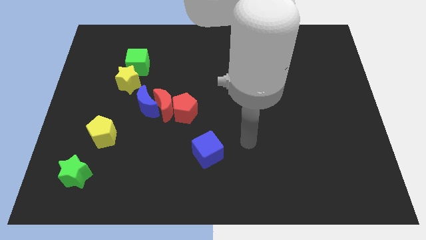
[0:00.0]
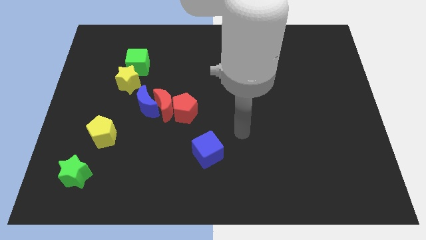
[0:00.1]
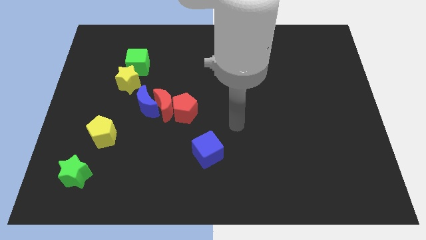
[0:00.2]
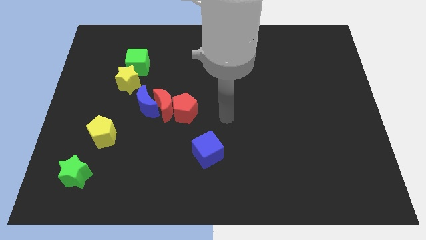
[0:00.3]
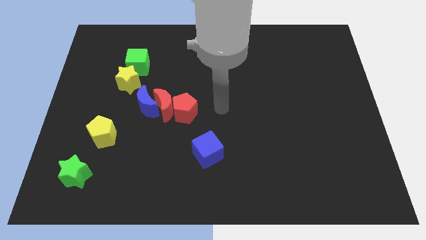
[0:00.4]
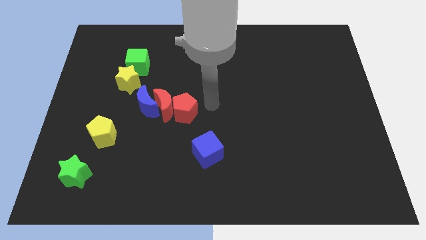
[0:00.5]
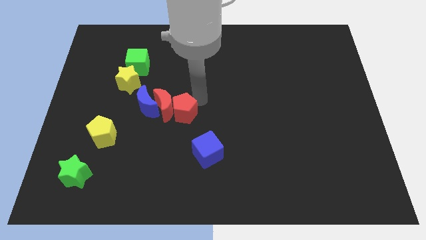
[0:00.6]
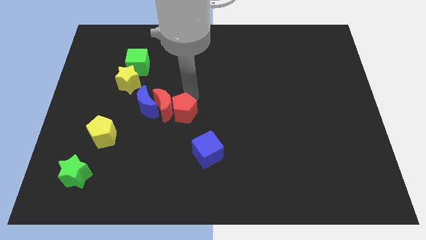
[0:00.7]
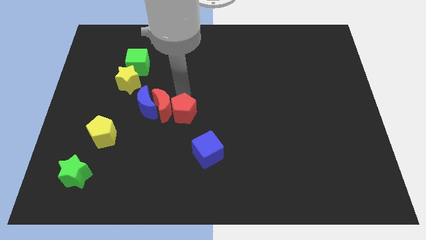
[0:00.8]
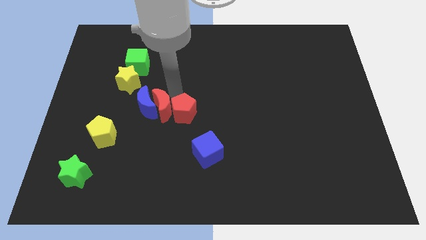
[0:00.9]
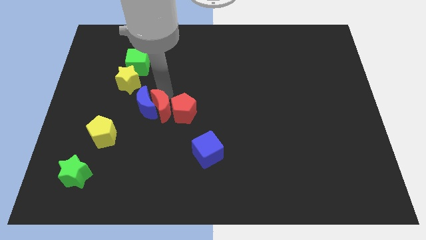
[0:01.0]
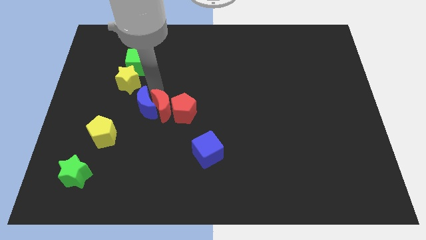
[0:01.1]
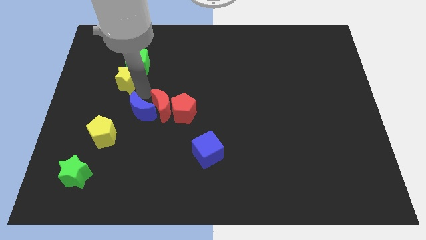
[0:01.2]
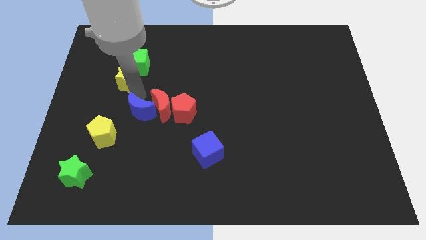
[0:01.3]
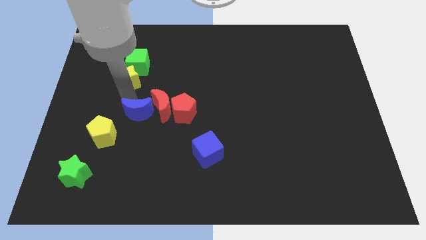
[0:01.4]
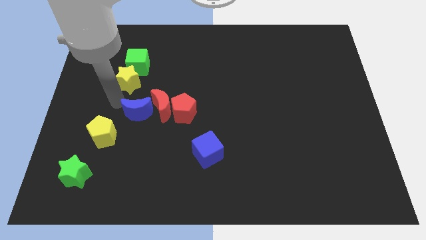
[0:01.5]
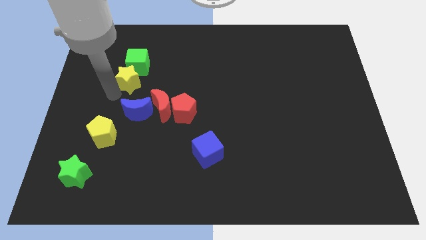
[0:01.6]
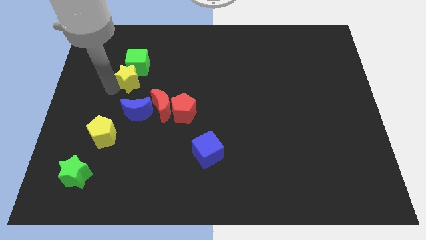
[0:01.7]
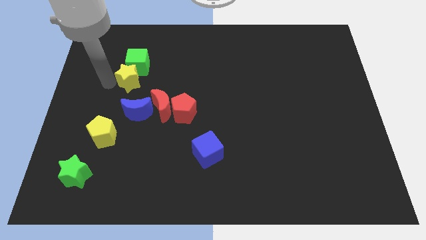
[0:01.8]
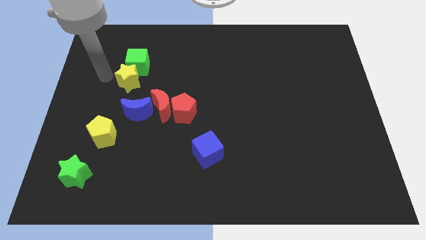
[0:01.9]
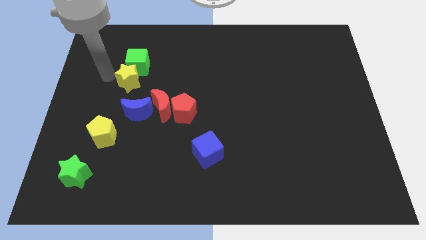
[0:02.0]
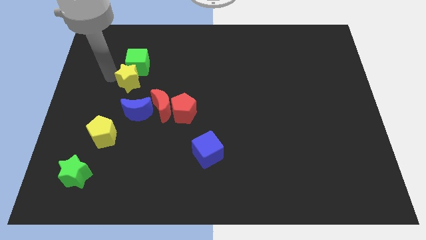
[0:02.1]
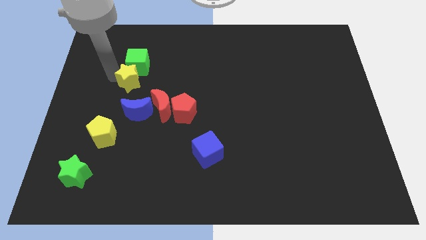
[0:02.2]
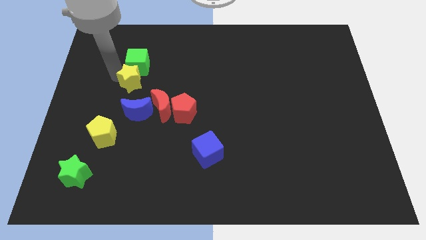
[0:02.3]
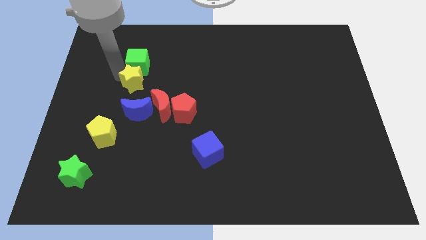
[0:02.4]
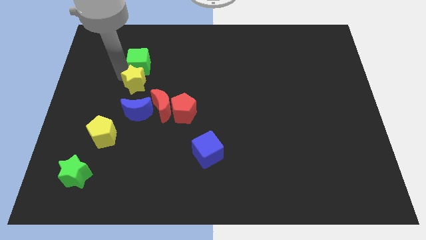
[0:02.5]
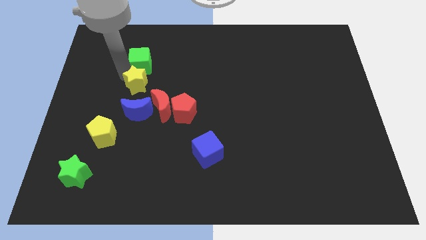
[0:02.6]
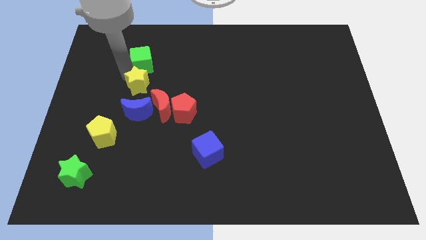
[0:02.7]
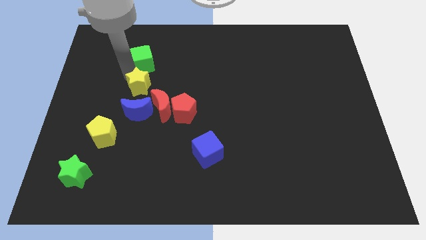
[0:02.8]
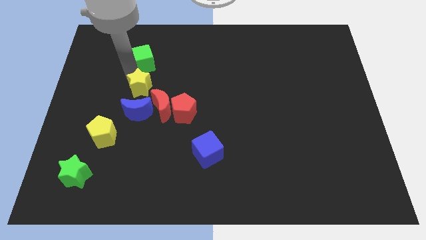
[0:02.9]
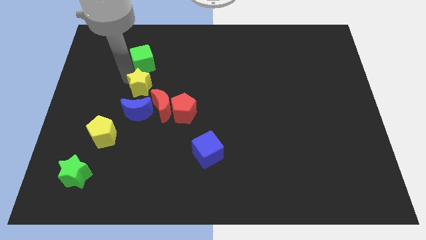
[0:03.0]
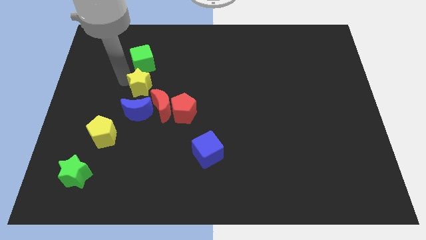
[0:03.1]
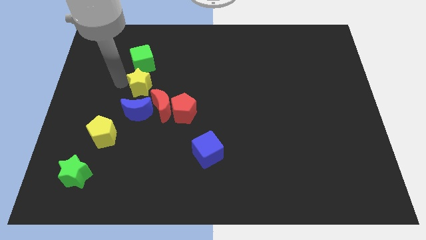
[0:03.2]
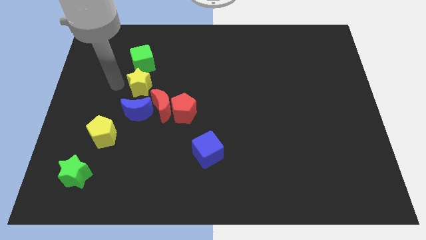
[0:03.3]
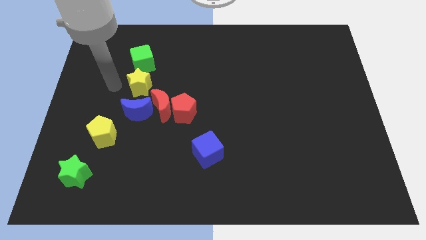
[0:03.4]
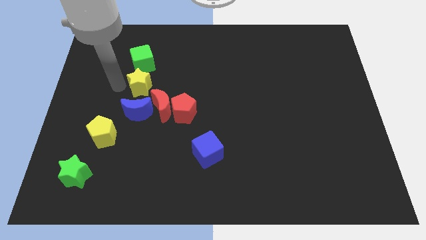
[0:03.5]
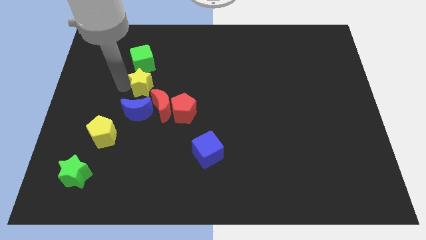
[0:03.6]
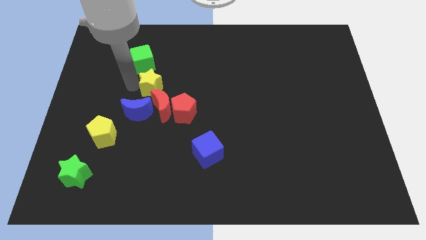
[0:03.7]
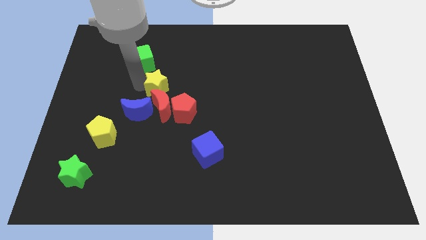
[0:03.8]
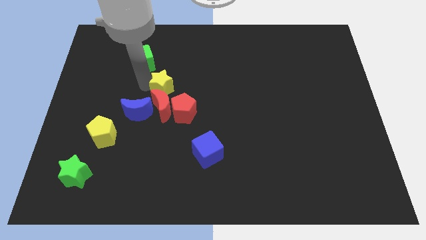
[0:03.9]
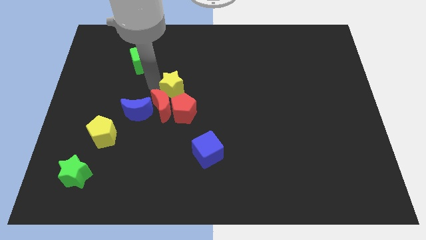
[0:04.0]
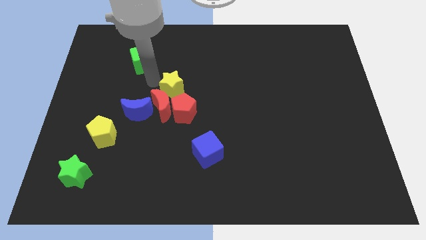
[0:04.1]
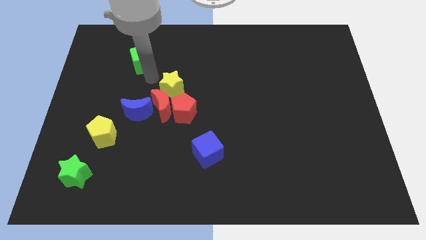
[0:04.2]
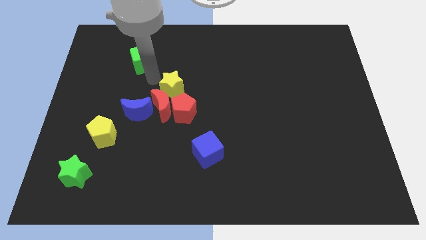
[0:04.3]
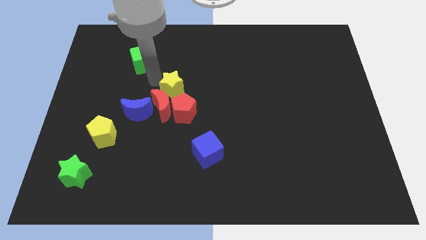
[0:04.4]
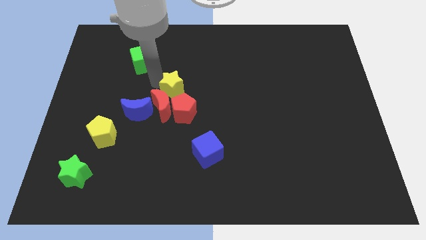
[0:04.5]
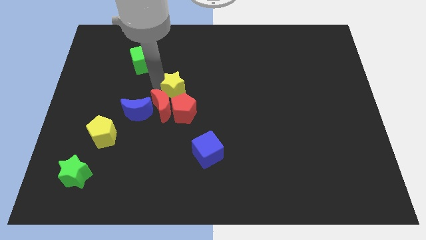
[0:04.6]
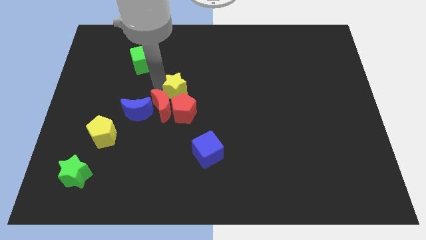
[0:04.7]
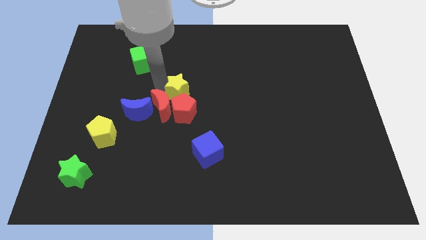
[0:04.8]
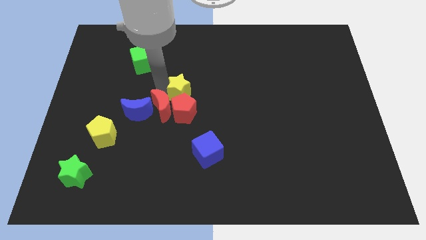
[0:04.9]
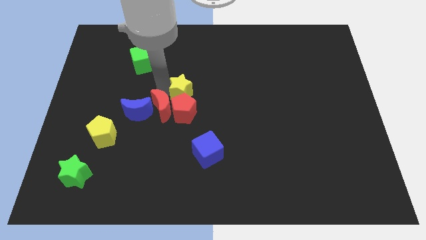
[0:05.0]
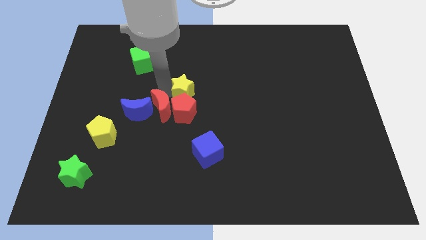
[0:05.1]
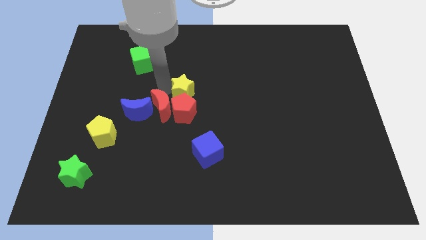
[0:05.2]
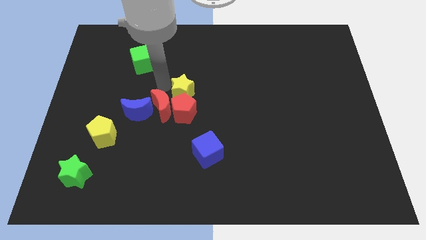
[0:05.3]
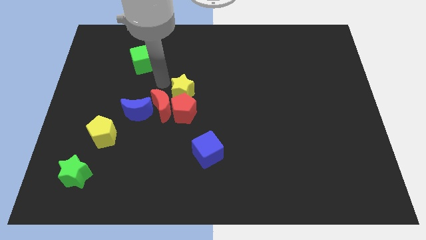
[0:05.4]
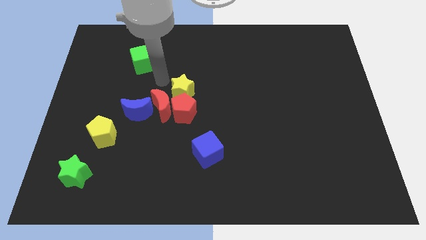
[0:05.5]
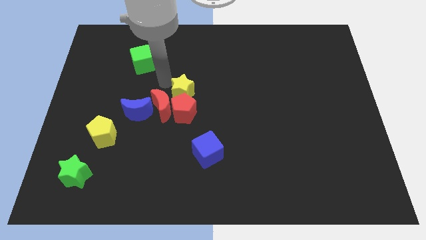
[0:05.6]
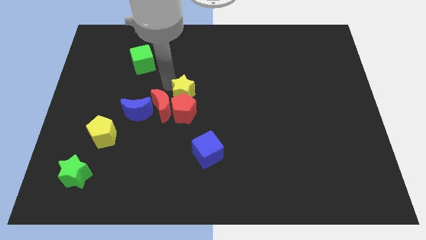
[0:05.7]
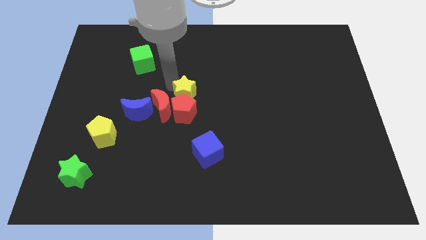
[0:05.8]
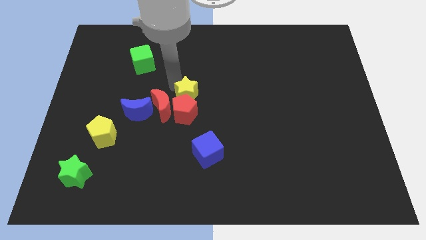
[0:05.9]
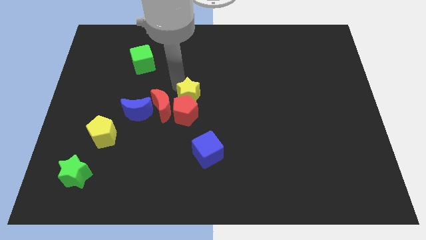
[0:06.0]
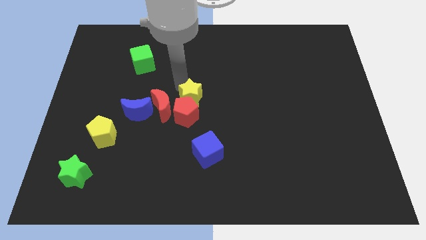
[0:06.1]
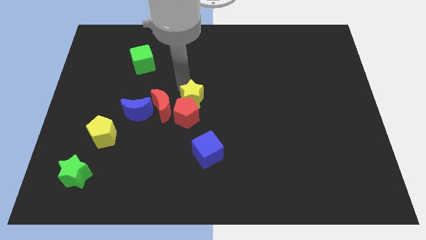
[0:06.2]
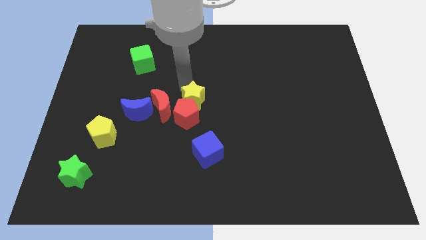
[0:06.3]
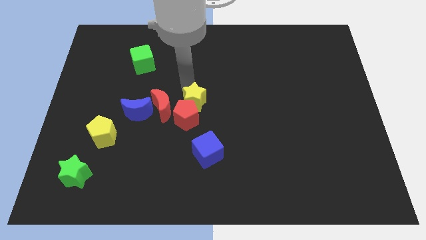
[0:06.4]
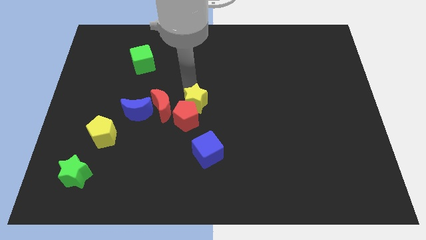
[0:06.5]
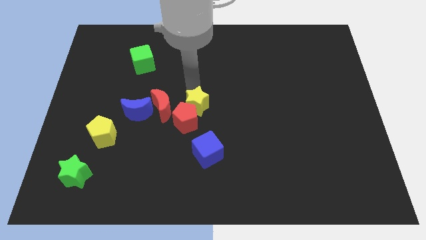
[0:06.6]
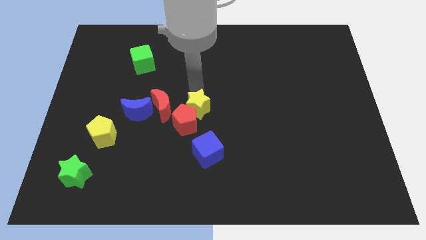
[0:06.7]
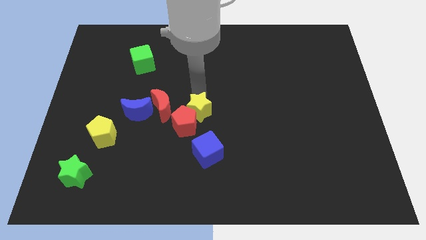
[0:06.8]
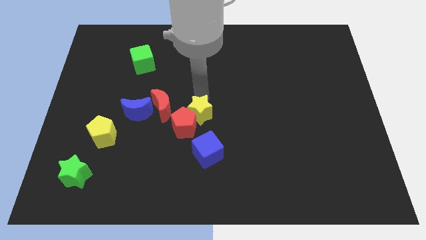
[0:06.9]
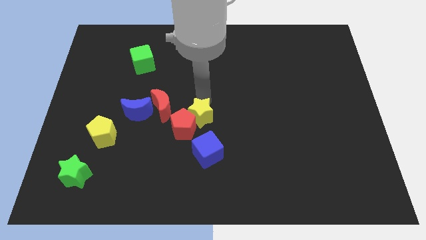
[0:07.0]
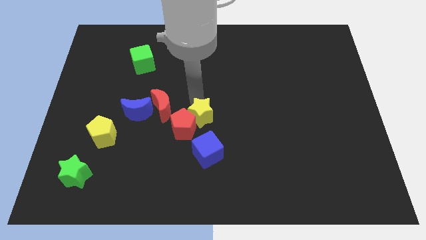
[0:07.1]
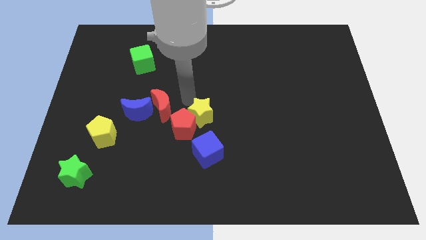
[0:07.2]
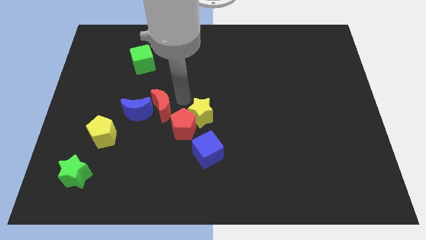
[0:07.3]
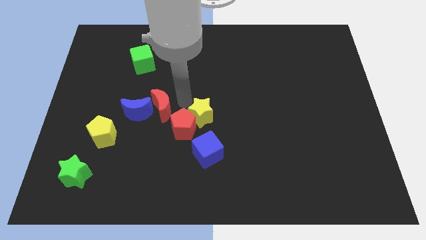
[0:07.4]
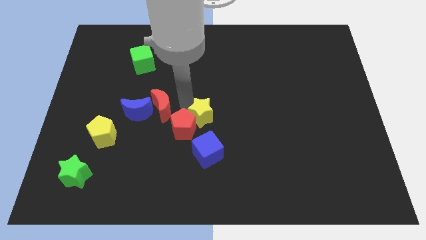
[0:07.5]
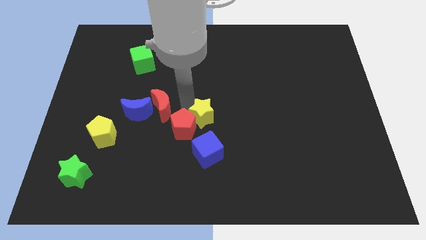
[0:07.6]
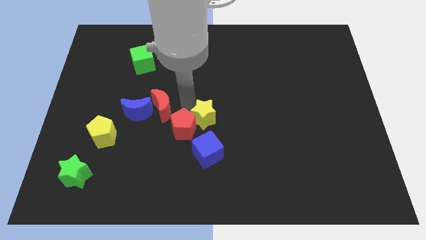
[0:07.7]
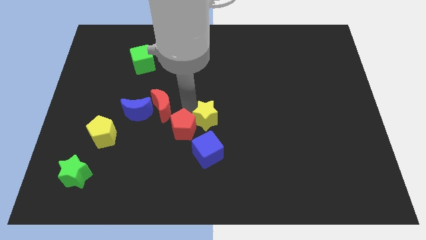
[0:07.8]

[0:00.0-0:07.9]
move the yellow star down and to the right diagonally
